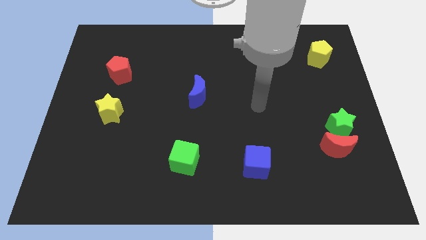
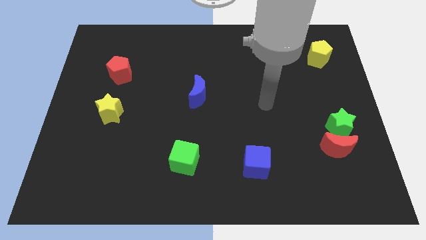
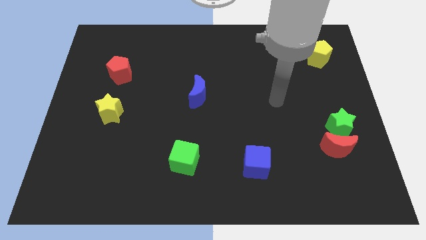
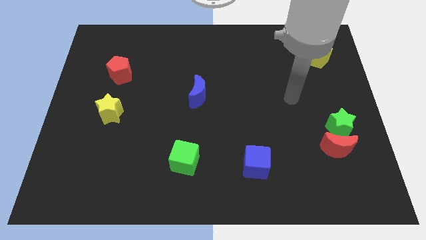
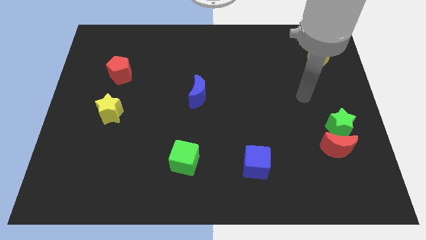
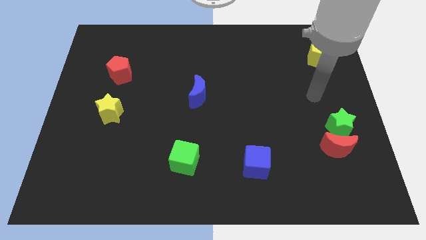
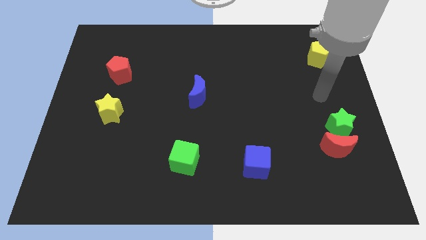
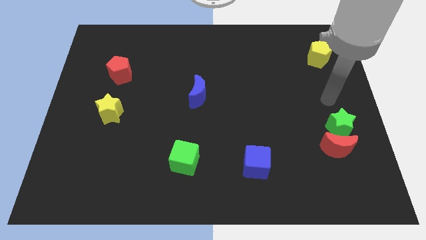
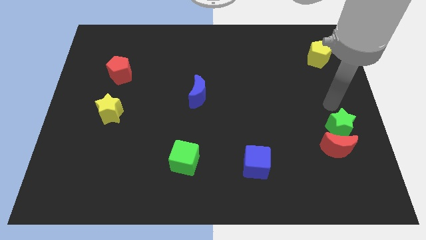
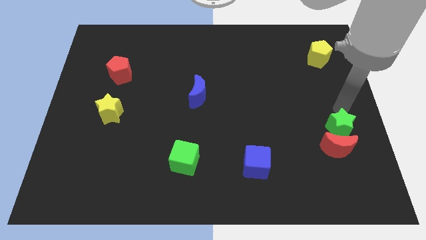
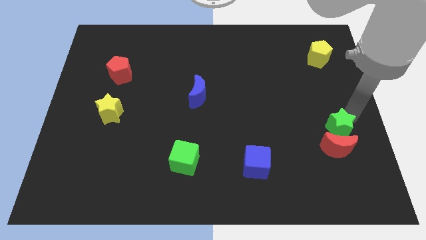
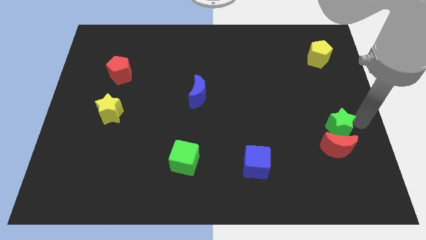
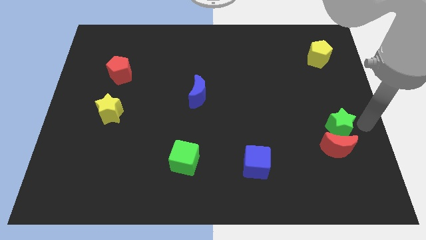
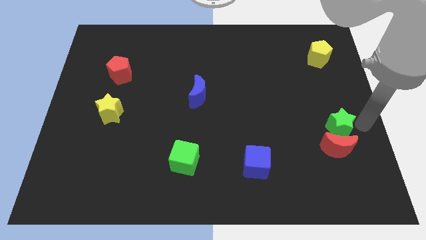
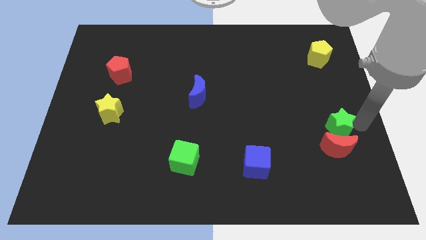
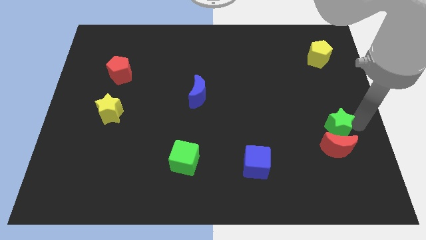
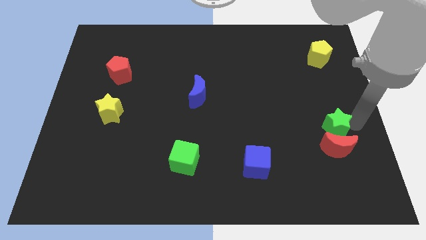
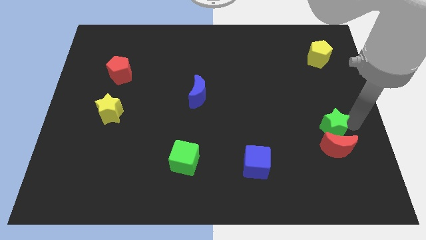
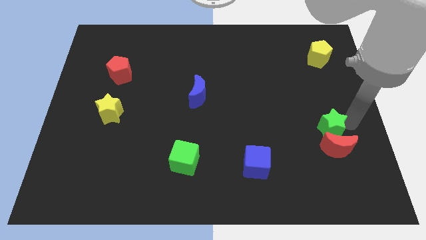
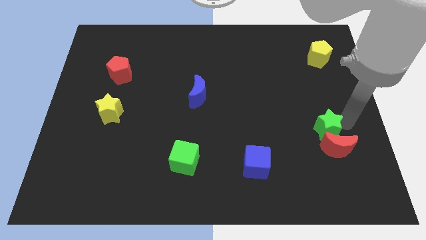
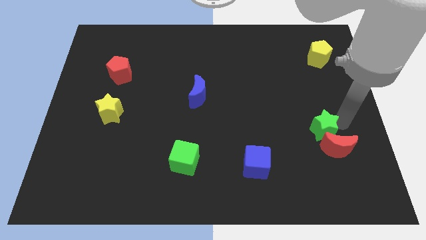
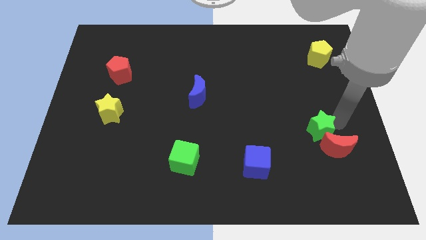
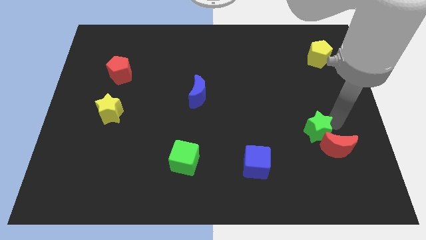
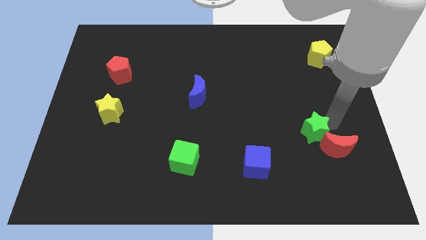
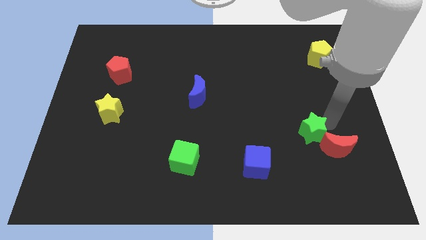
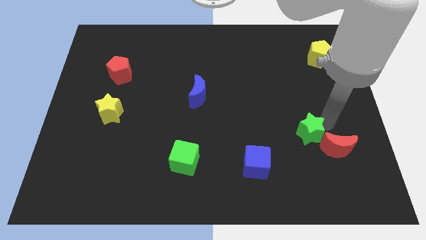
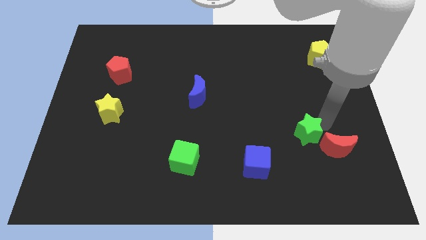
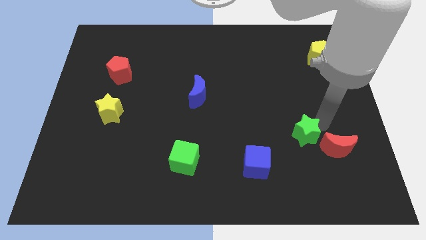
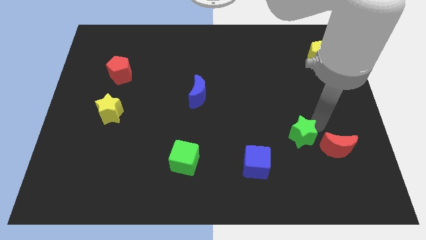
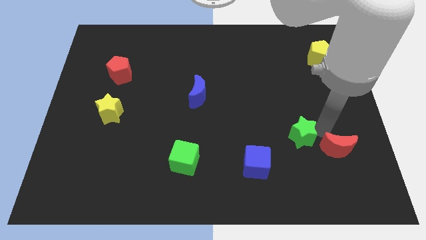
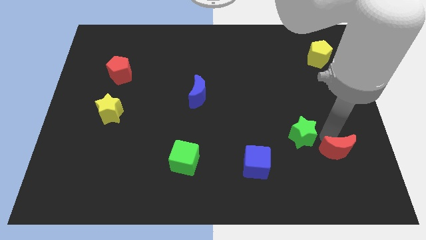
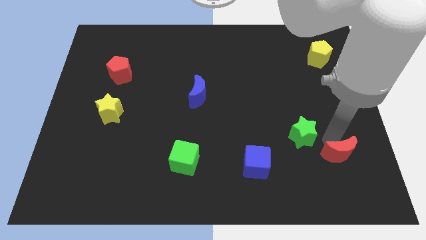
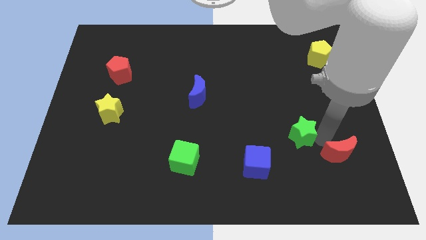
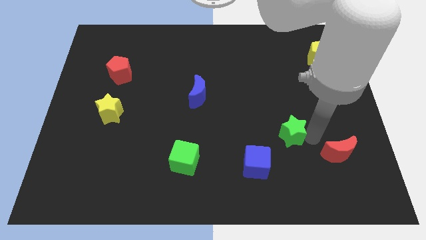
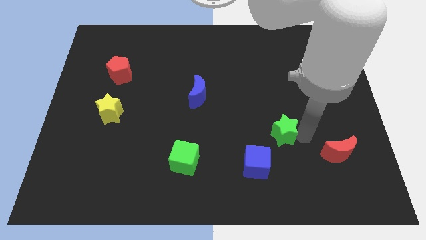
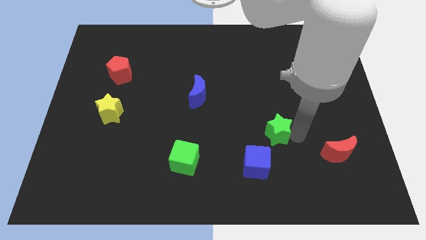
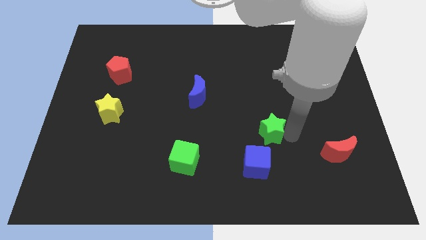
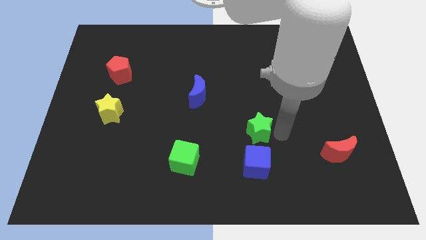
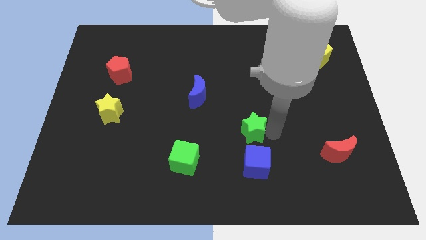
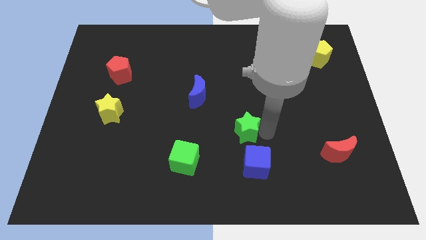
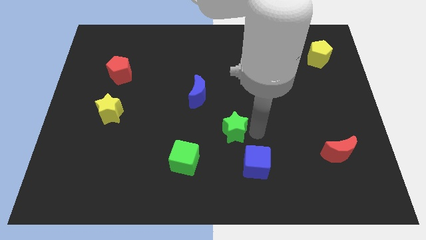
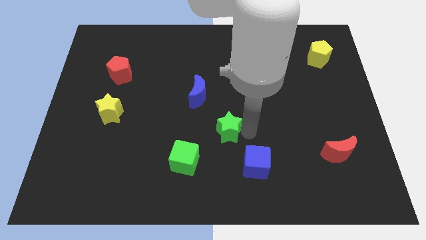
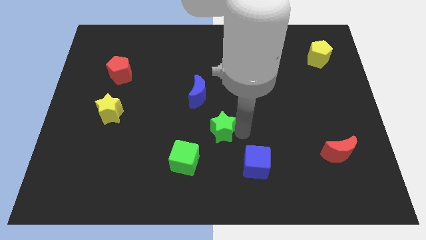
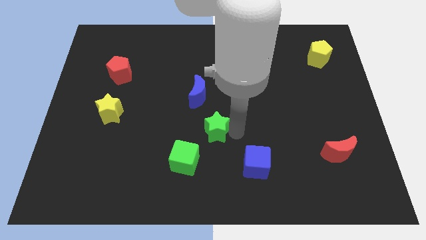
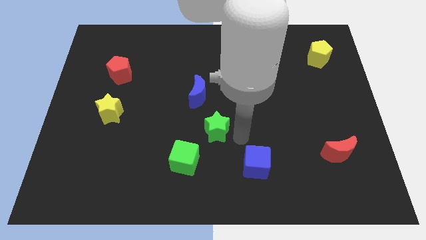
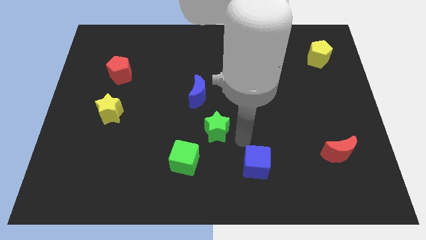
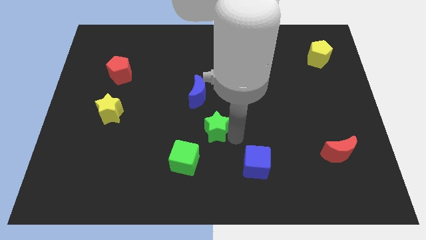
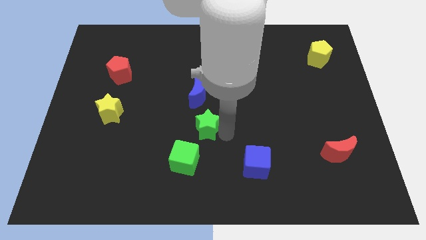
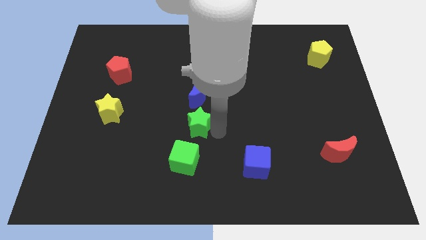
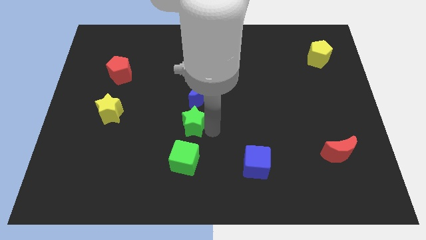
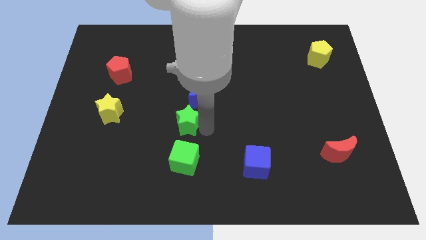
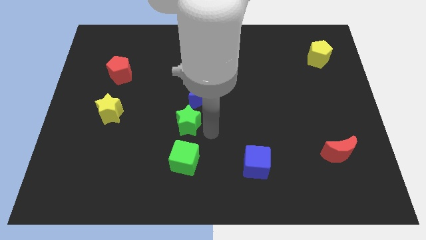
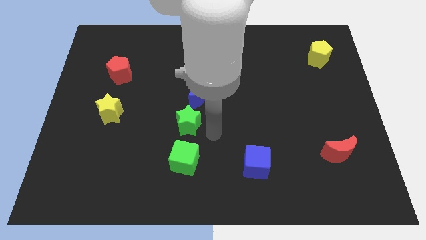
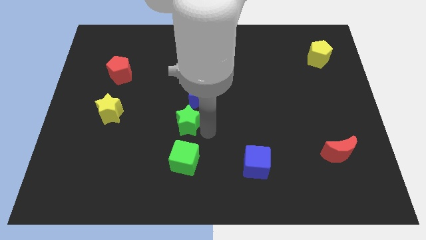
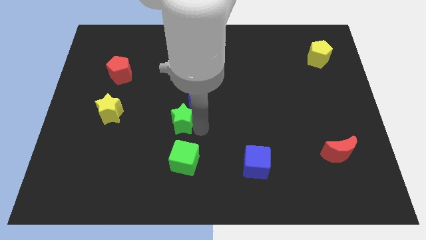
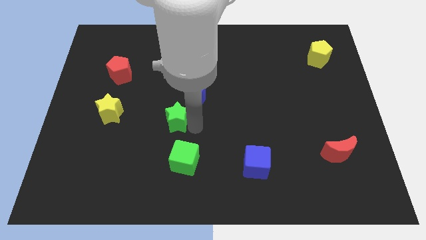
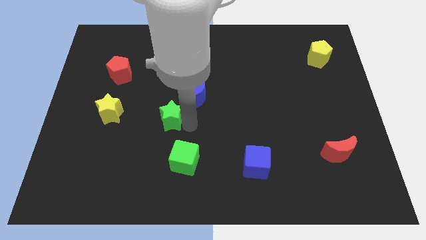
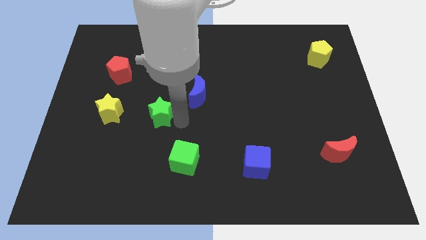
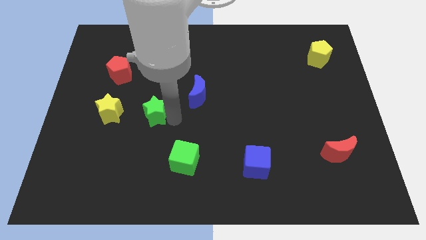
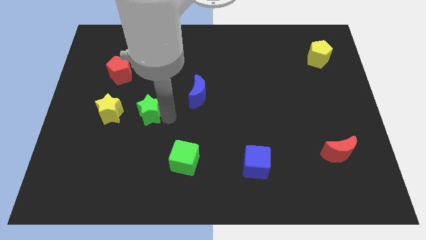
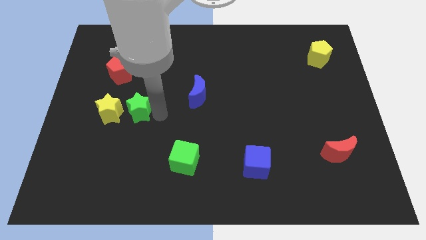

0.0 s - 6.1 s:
push the green star close to the yellow star

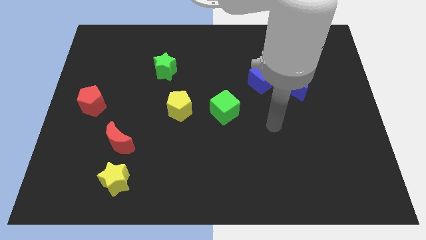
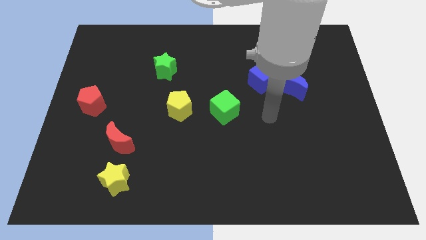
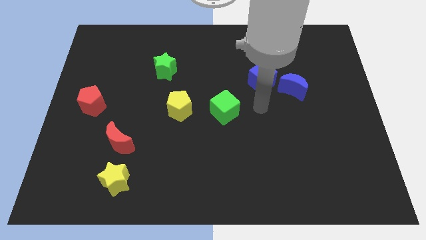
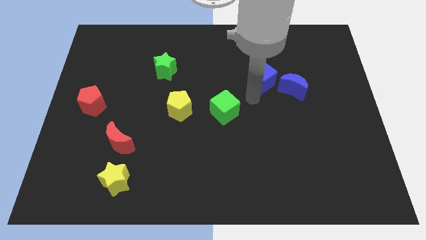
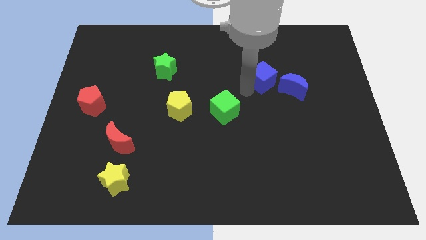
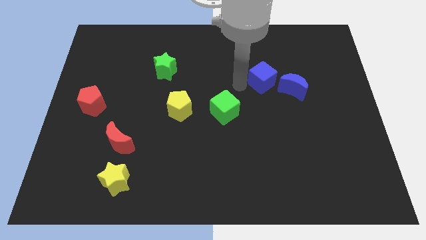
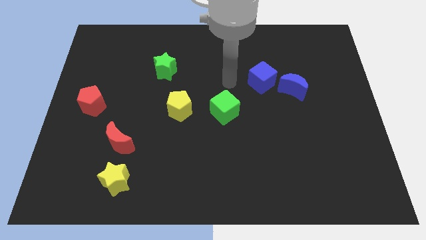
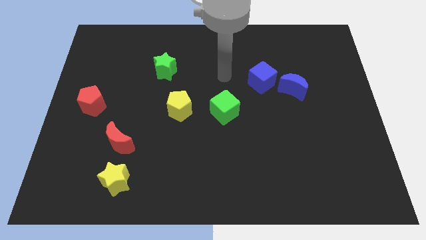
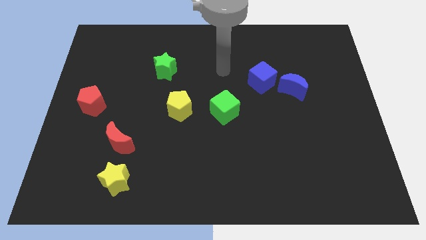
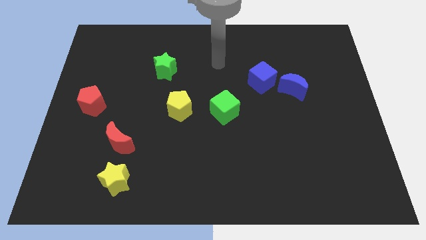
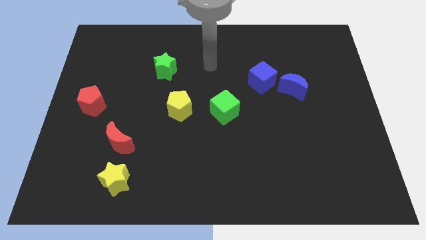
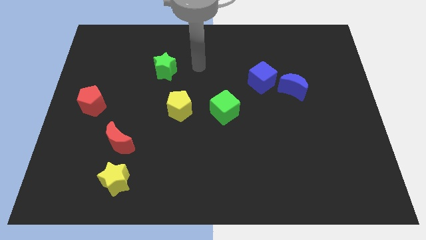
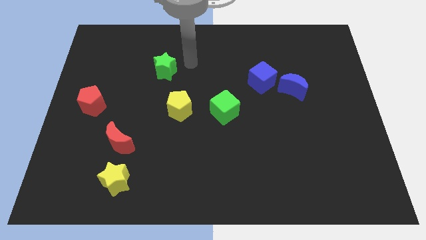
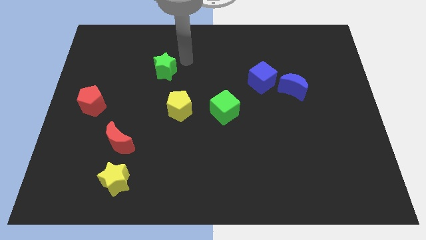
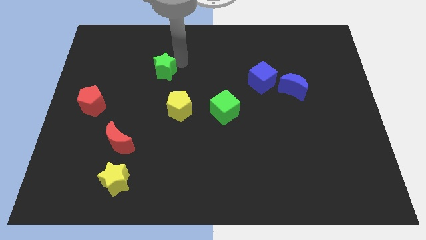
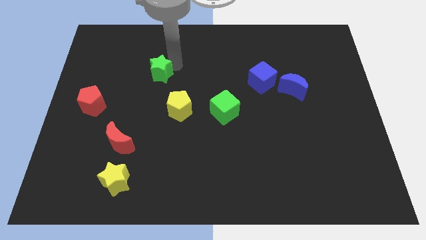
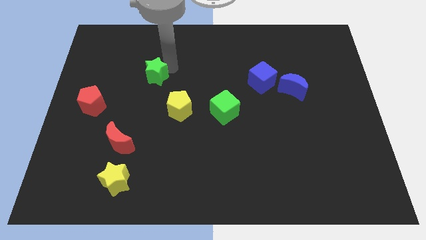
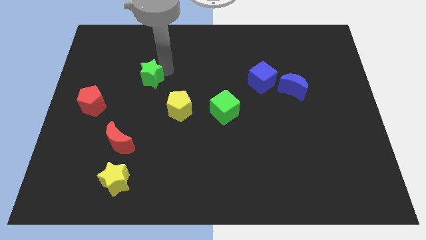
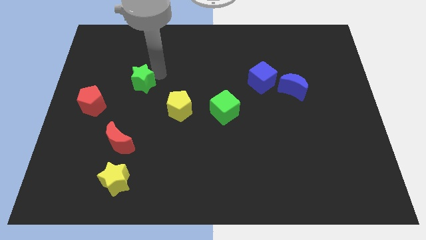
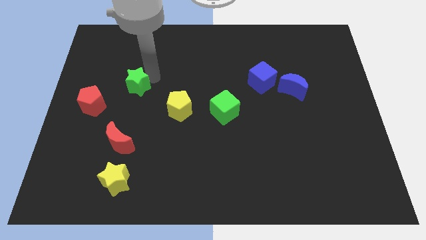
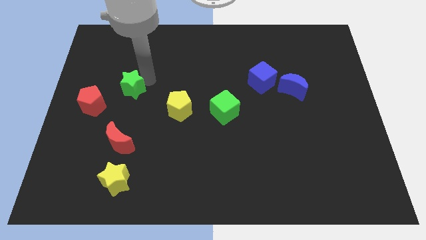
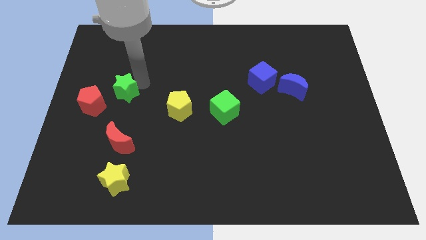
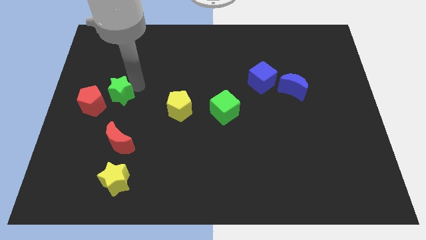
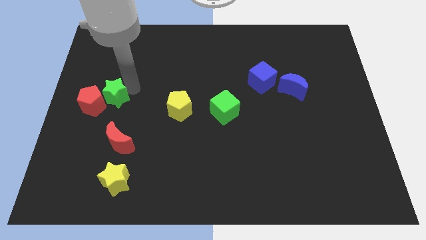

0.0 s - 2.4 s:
move the green star close to the red pentagon
